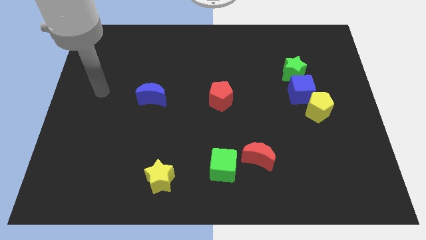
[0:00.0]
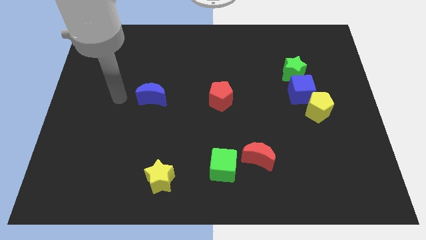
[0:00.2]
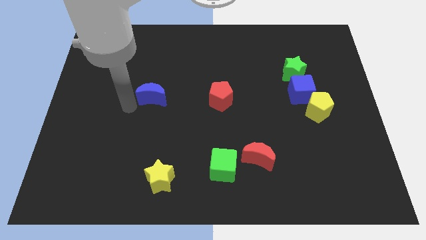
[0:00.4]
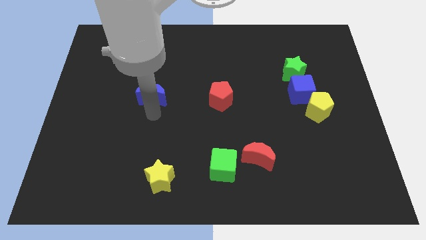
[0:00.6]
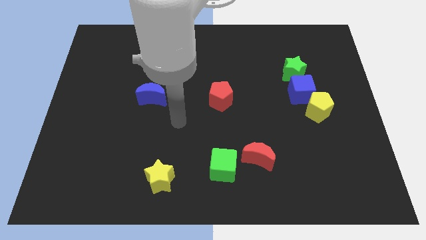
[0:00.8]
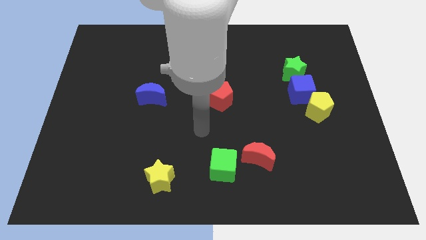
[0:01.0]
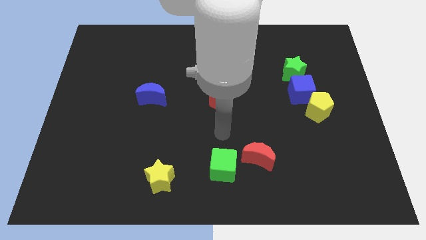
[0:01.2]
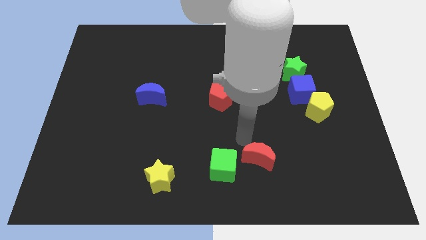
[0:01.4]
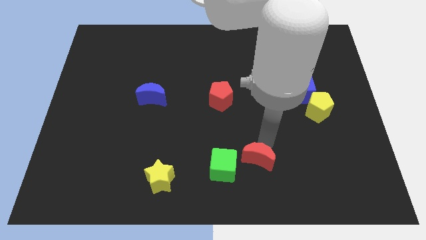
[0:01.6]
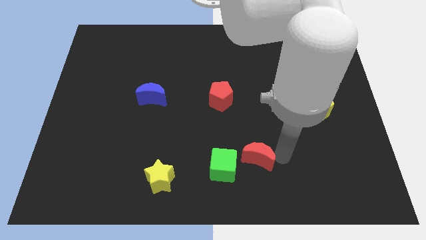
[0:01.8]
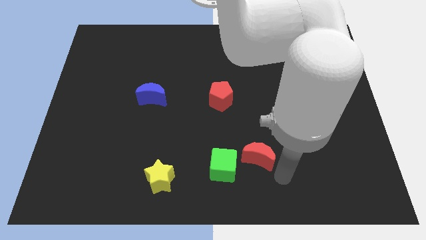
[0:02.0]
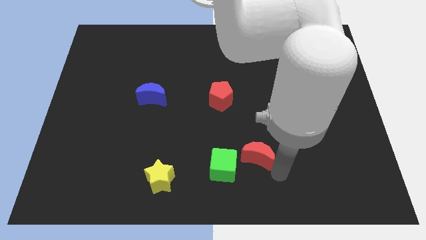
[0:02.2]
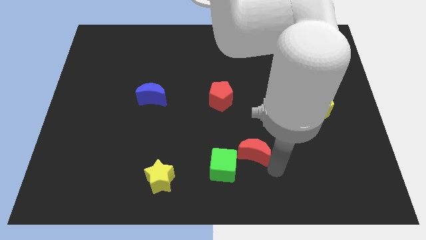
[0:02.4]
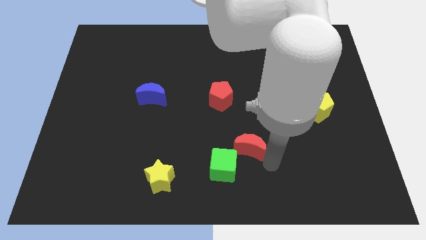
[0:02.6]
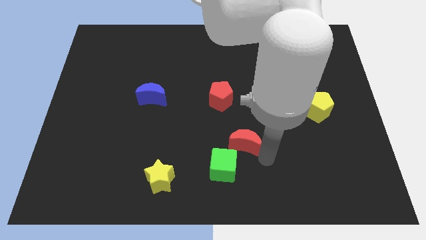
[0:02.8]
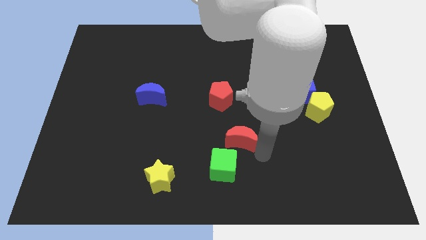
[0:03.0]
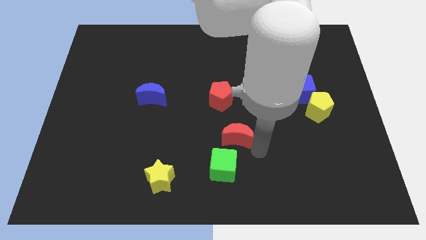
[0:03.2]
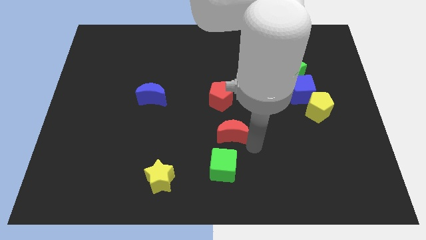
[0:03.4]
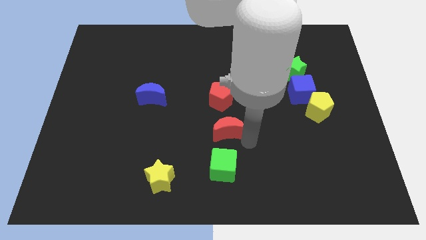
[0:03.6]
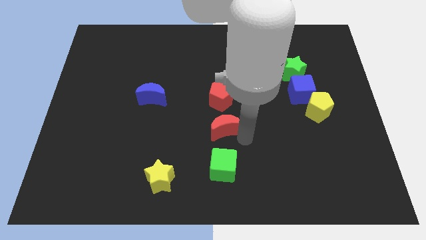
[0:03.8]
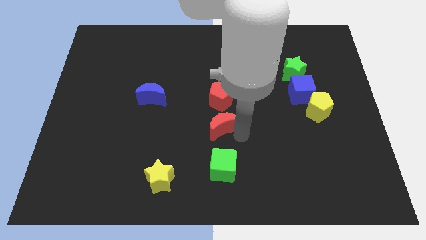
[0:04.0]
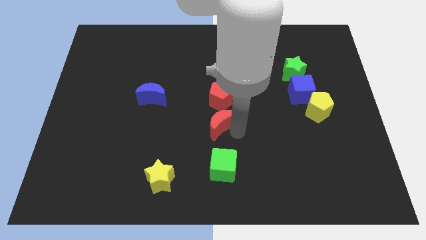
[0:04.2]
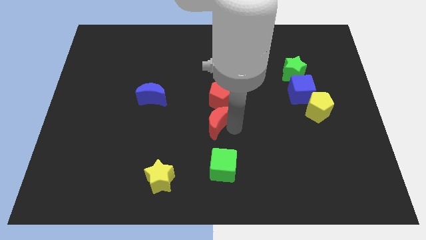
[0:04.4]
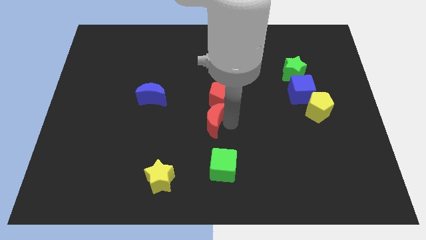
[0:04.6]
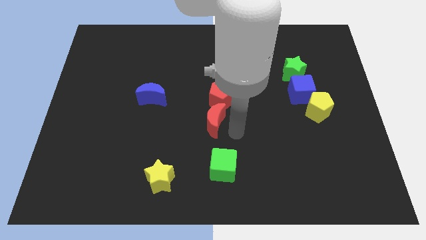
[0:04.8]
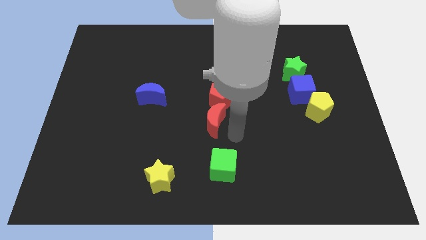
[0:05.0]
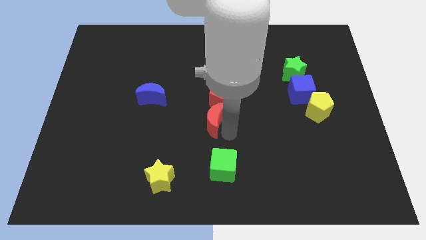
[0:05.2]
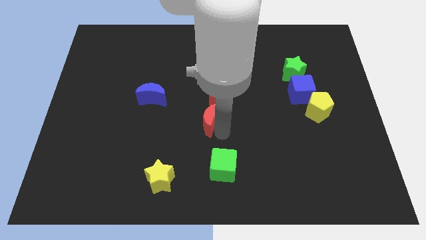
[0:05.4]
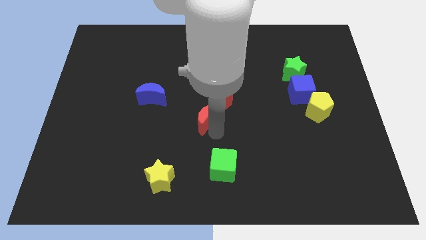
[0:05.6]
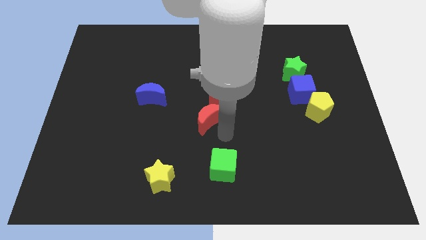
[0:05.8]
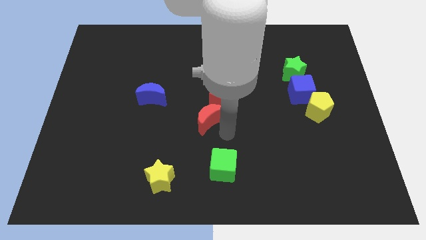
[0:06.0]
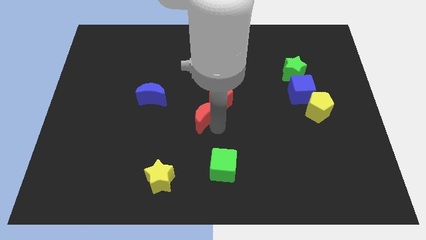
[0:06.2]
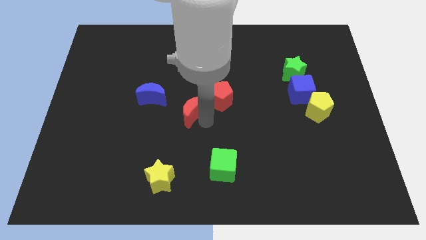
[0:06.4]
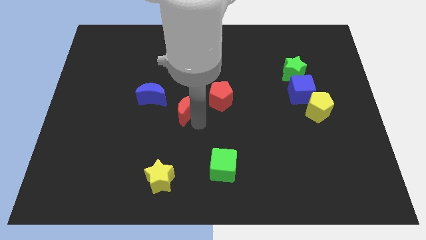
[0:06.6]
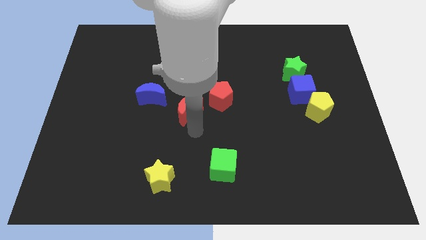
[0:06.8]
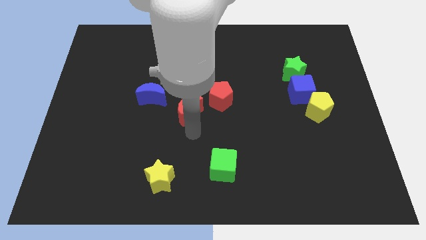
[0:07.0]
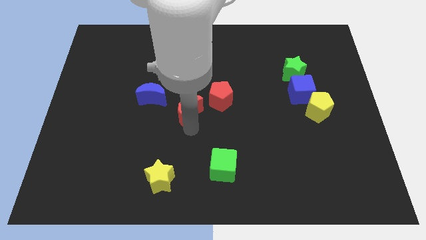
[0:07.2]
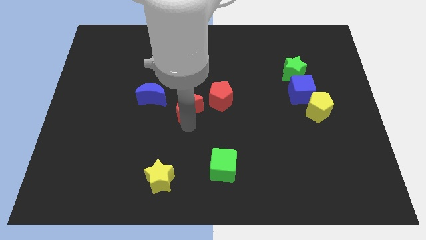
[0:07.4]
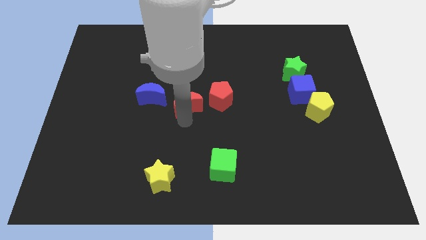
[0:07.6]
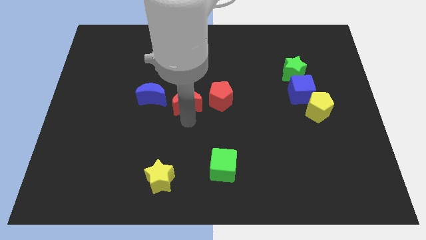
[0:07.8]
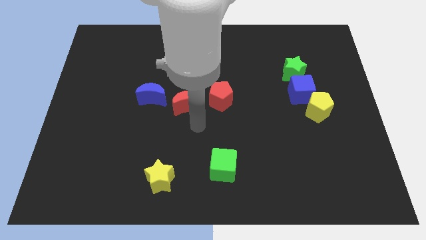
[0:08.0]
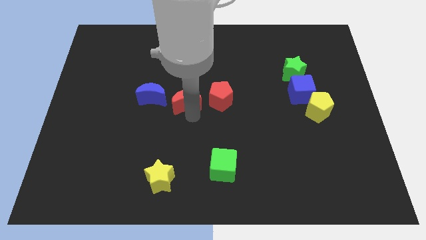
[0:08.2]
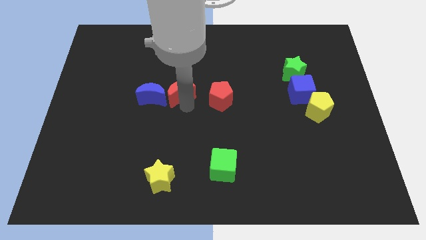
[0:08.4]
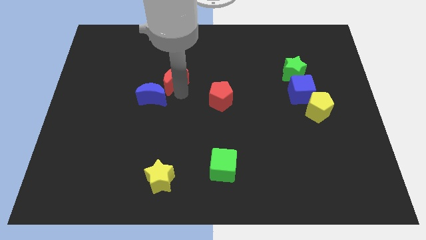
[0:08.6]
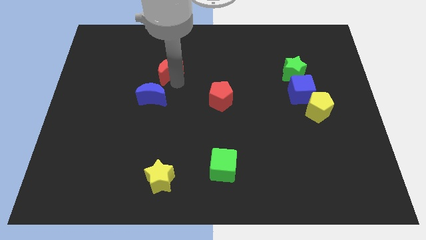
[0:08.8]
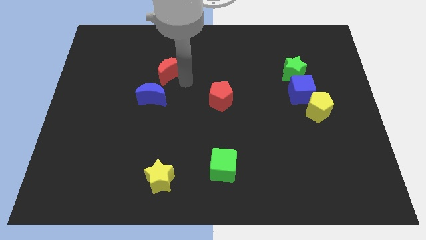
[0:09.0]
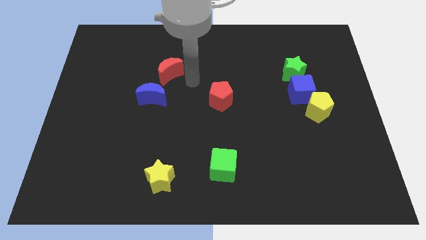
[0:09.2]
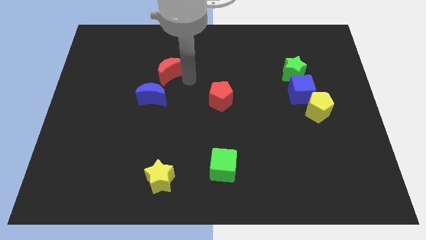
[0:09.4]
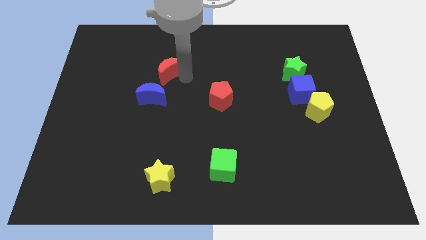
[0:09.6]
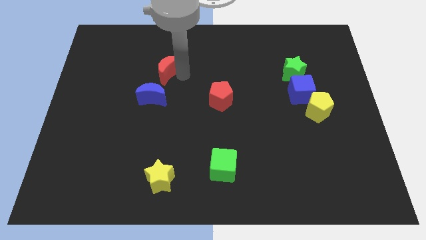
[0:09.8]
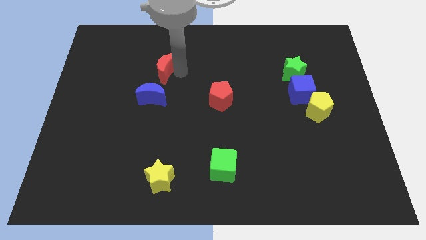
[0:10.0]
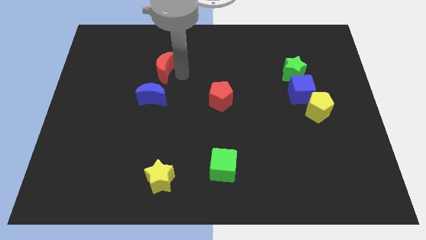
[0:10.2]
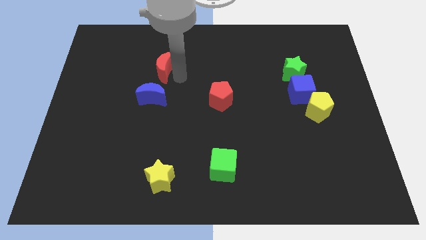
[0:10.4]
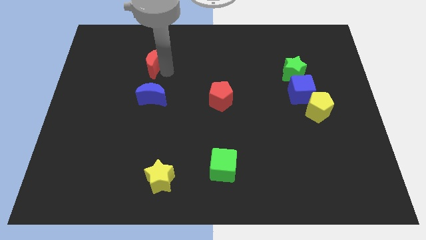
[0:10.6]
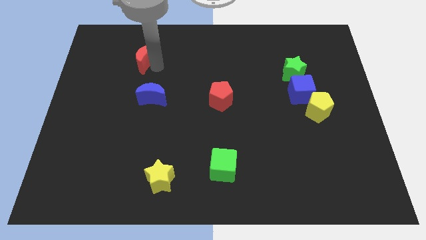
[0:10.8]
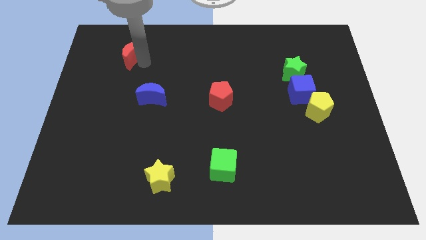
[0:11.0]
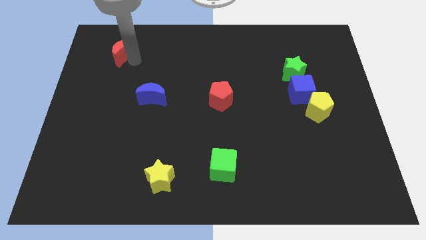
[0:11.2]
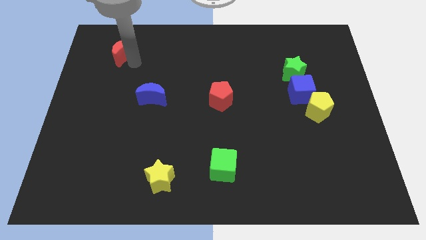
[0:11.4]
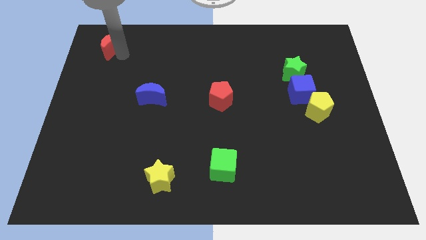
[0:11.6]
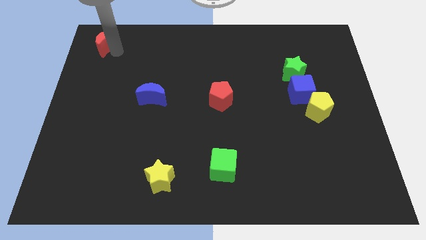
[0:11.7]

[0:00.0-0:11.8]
push the red moon to the top left of the board
